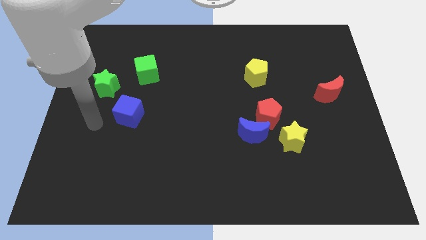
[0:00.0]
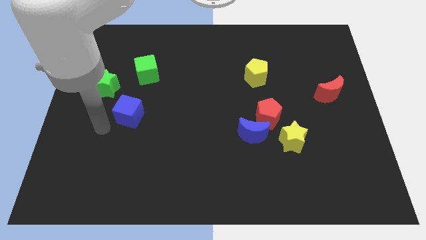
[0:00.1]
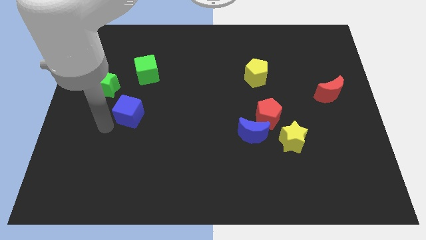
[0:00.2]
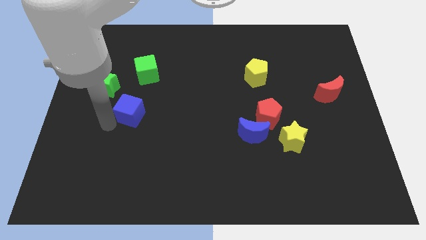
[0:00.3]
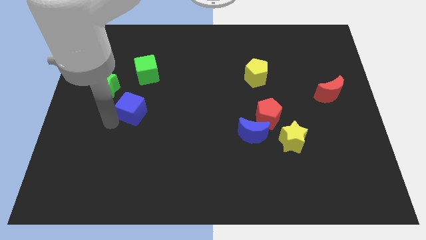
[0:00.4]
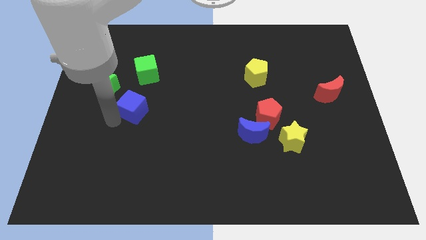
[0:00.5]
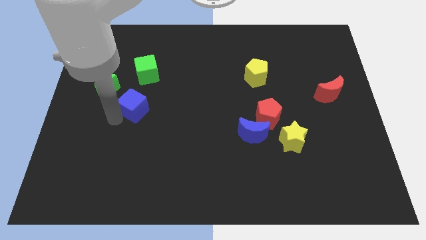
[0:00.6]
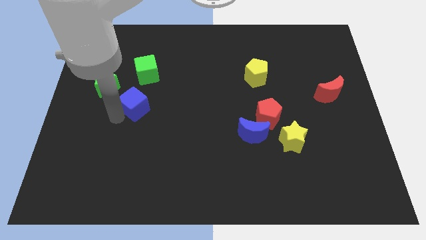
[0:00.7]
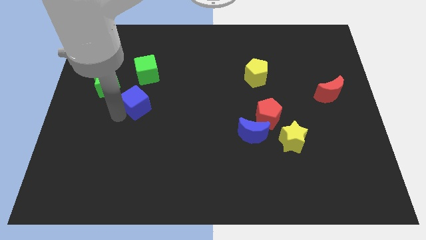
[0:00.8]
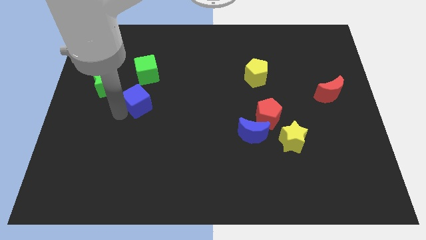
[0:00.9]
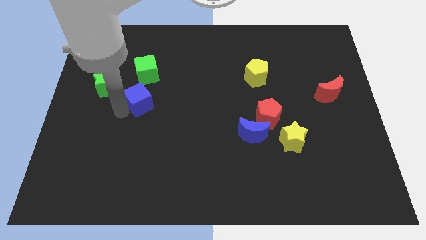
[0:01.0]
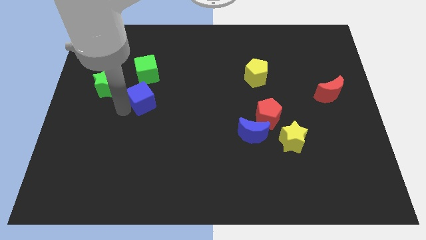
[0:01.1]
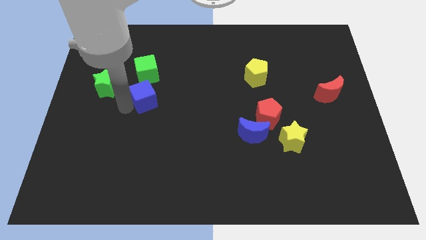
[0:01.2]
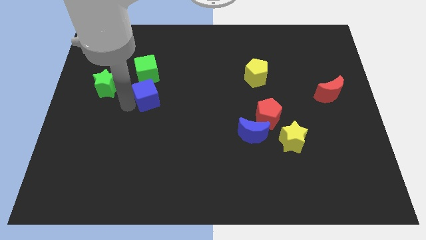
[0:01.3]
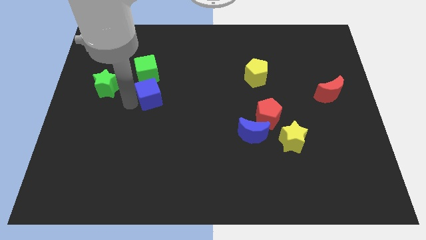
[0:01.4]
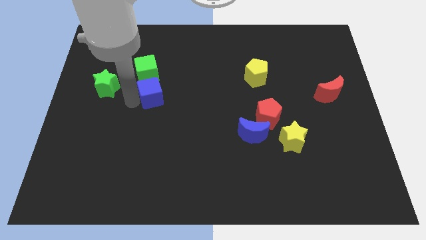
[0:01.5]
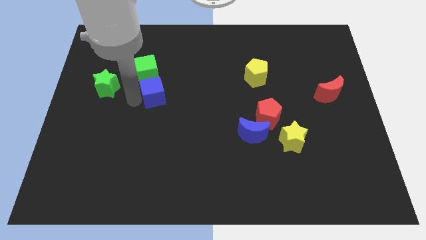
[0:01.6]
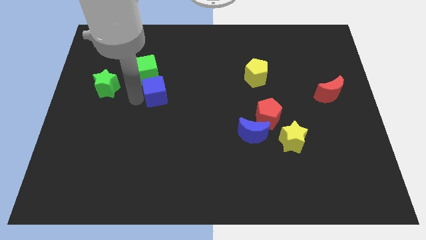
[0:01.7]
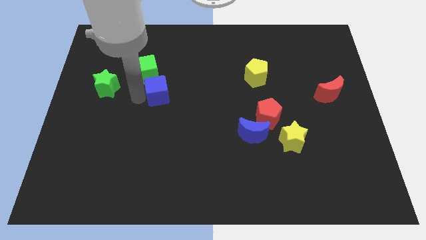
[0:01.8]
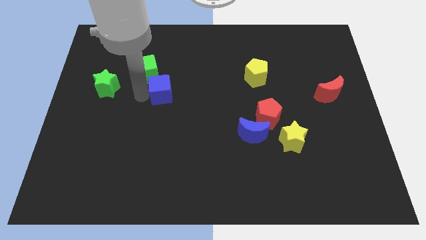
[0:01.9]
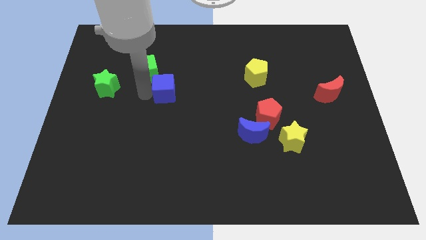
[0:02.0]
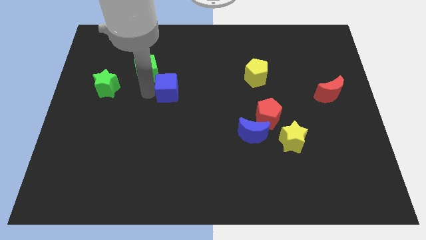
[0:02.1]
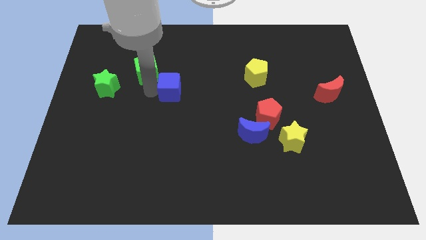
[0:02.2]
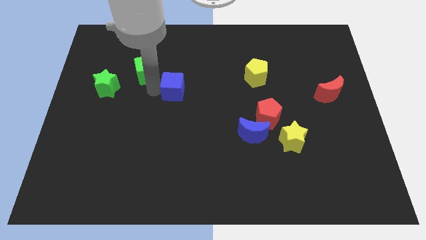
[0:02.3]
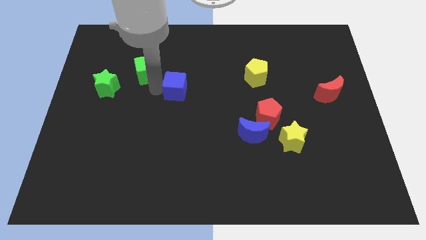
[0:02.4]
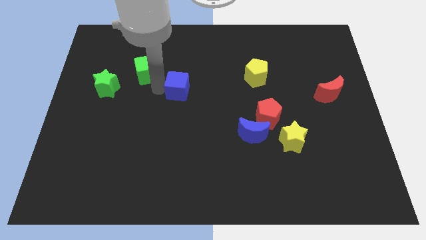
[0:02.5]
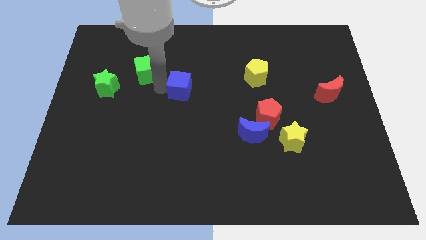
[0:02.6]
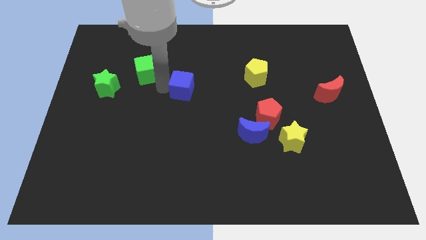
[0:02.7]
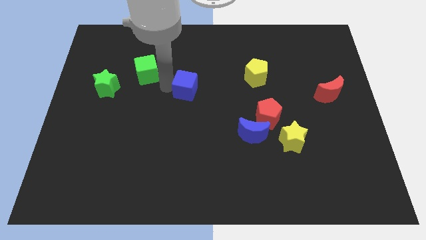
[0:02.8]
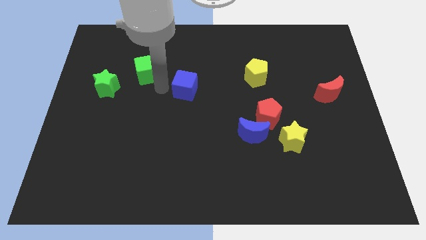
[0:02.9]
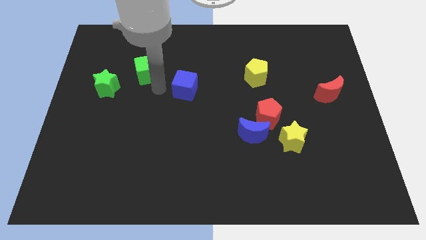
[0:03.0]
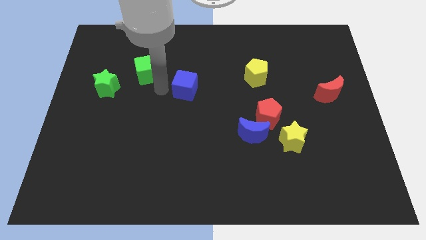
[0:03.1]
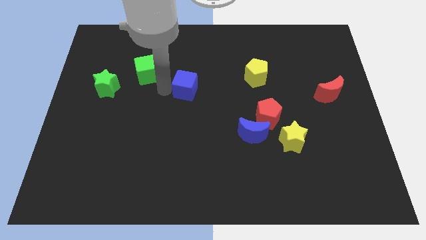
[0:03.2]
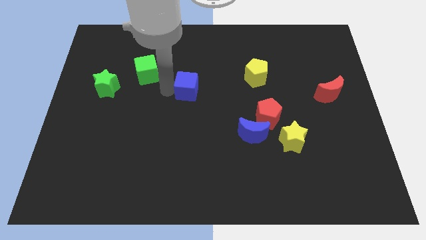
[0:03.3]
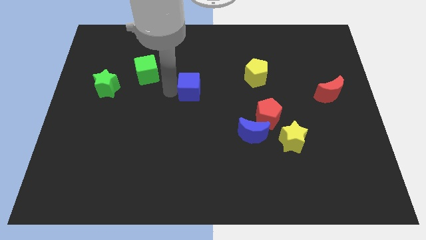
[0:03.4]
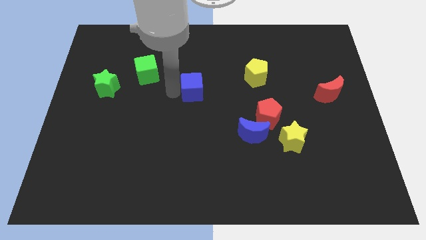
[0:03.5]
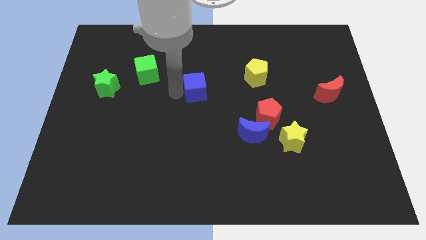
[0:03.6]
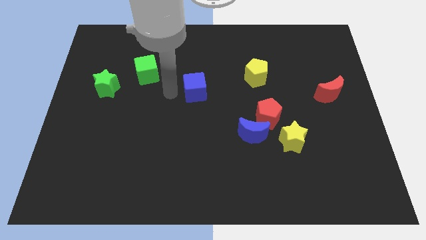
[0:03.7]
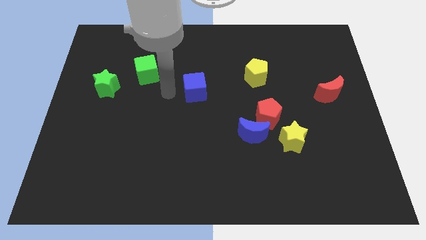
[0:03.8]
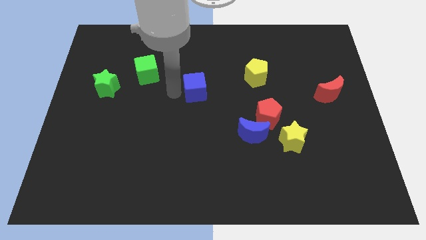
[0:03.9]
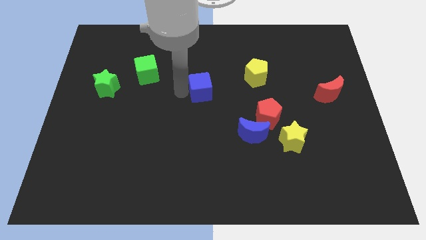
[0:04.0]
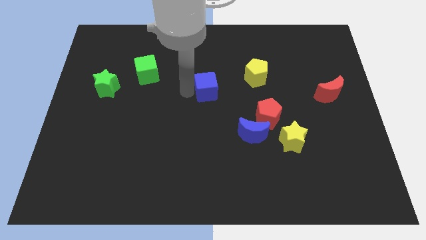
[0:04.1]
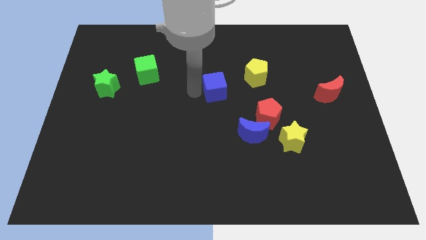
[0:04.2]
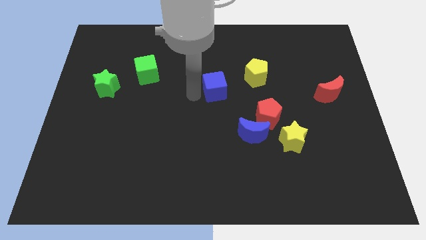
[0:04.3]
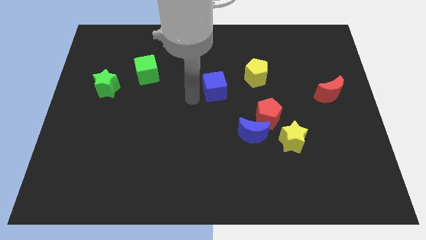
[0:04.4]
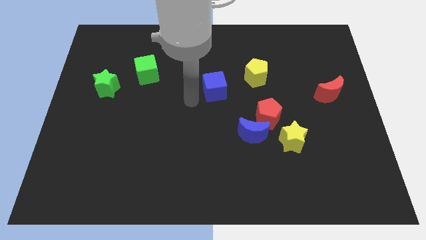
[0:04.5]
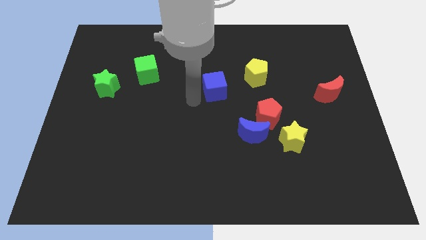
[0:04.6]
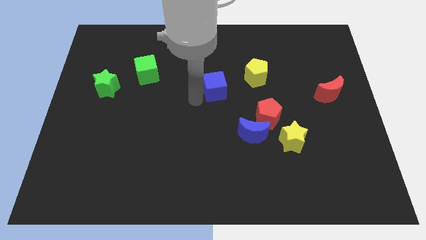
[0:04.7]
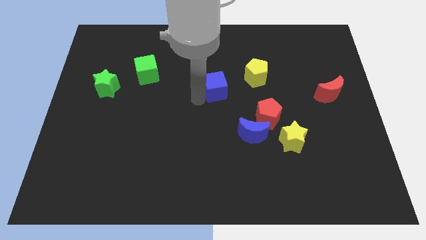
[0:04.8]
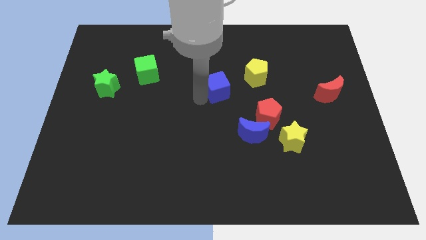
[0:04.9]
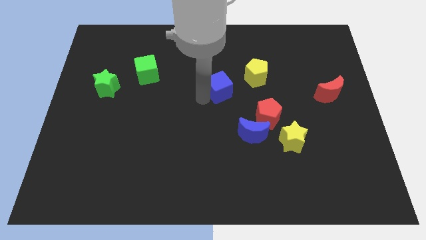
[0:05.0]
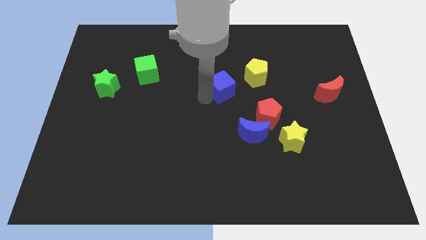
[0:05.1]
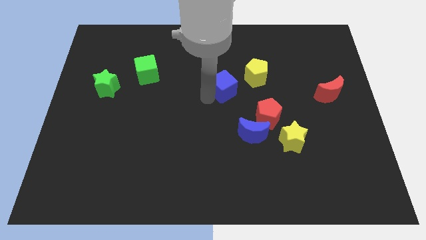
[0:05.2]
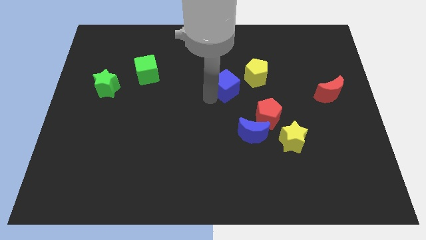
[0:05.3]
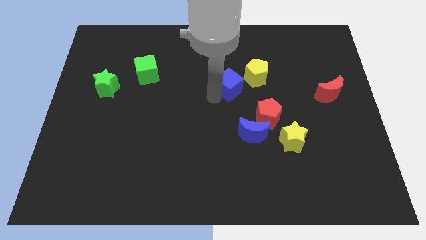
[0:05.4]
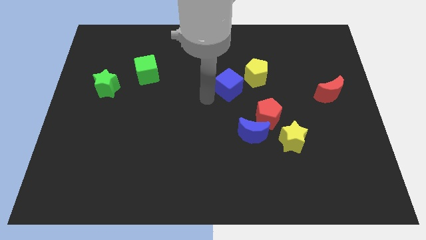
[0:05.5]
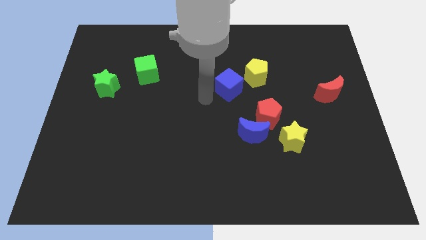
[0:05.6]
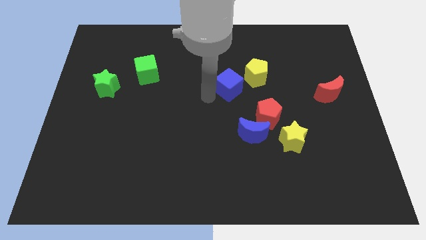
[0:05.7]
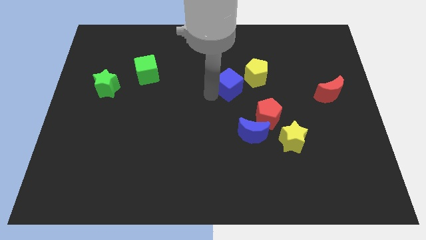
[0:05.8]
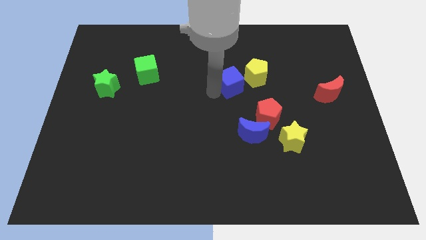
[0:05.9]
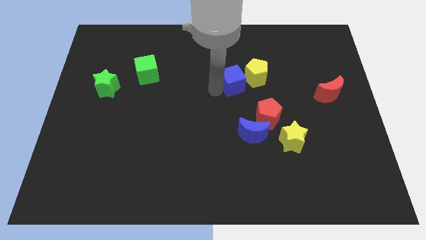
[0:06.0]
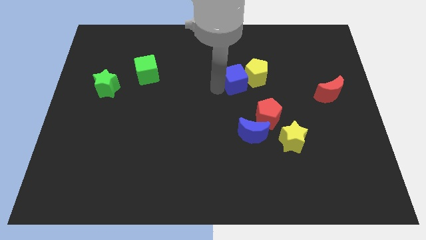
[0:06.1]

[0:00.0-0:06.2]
move the blue cube to the yellow pentagon

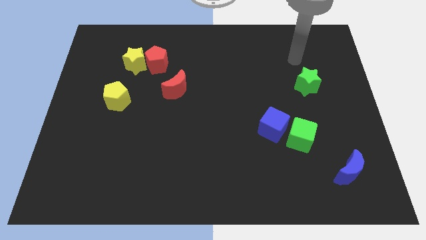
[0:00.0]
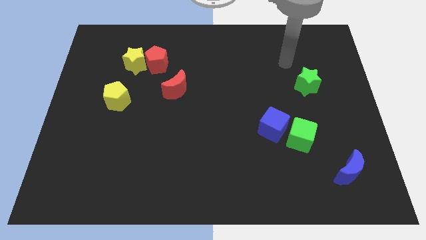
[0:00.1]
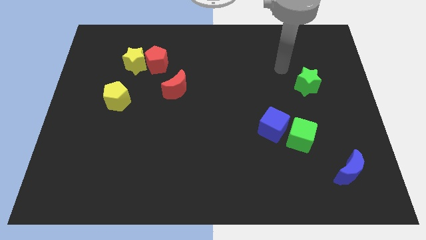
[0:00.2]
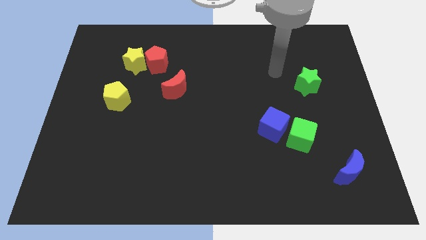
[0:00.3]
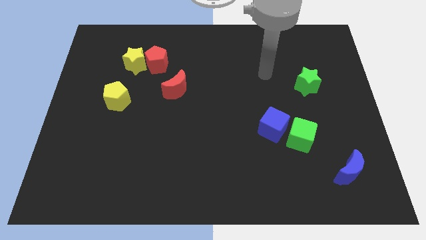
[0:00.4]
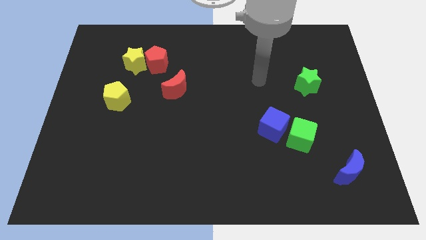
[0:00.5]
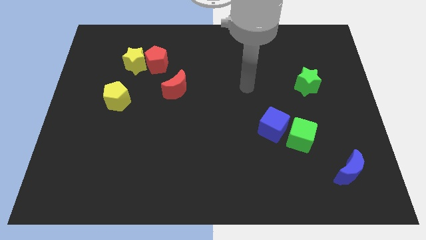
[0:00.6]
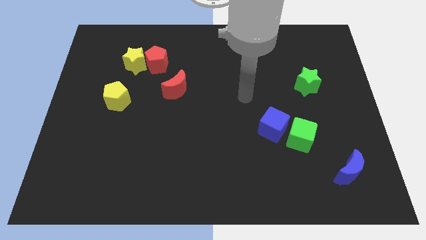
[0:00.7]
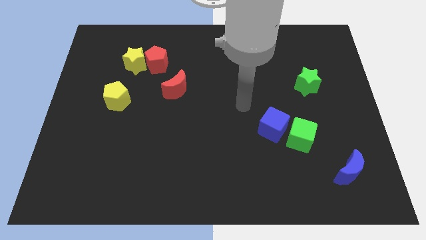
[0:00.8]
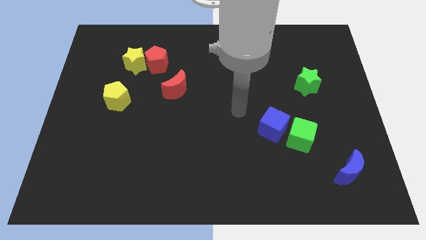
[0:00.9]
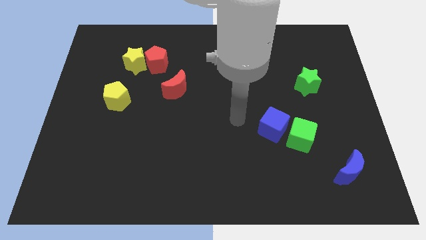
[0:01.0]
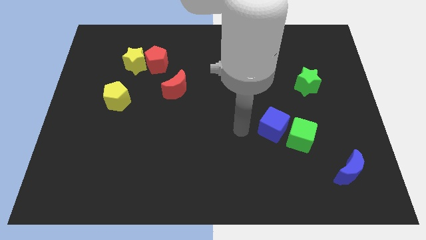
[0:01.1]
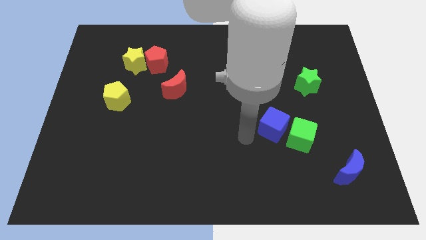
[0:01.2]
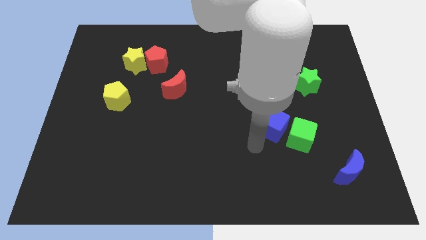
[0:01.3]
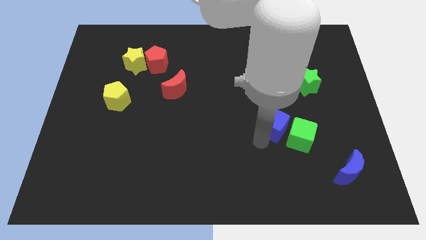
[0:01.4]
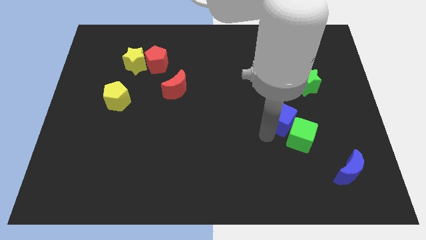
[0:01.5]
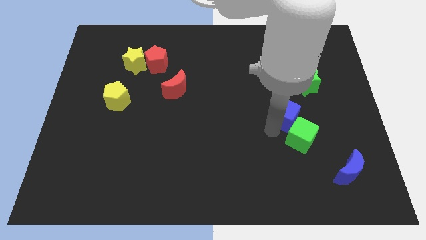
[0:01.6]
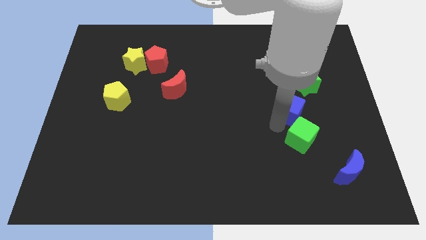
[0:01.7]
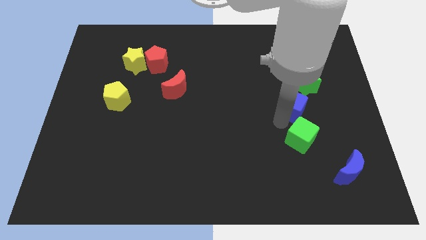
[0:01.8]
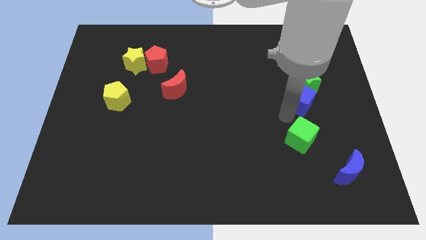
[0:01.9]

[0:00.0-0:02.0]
put the blue cube to the green star
